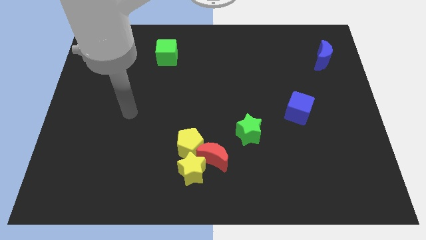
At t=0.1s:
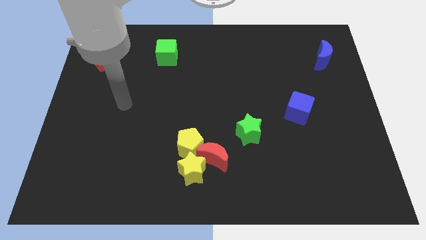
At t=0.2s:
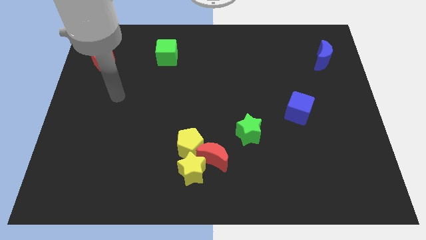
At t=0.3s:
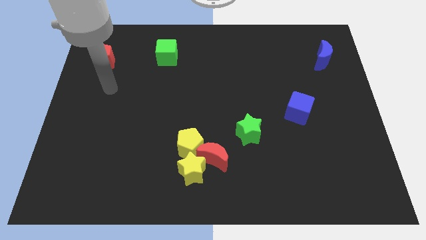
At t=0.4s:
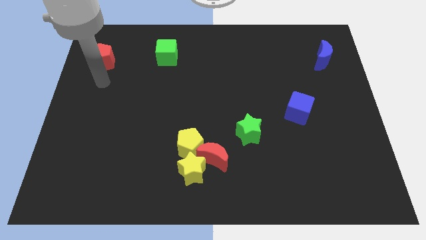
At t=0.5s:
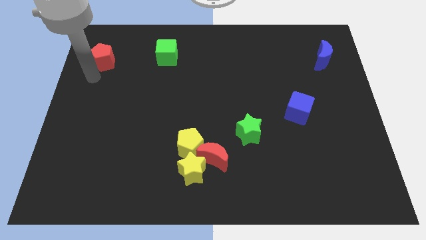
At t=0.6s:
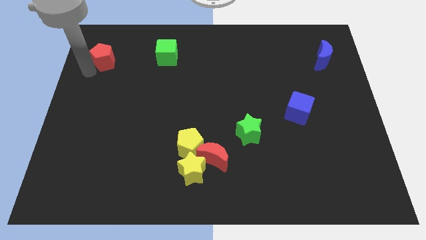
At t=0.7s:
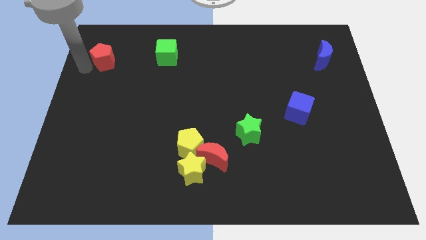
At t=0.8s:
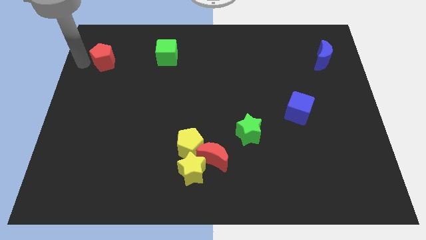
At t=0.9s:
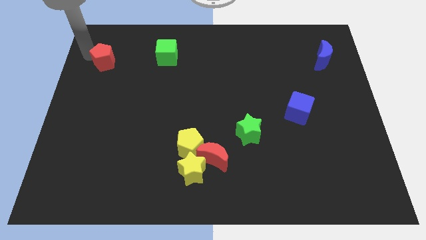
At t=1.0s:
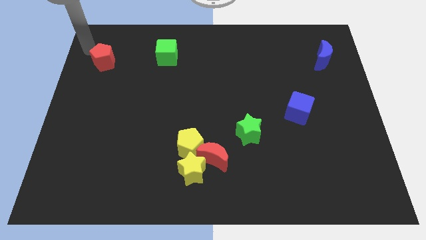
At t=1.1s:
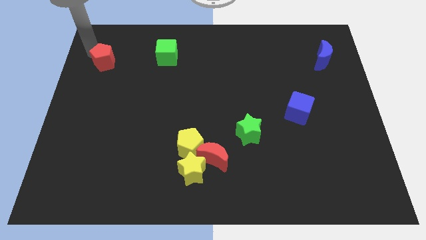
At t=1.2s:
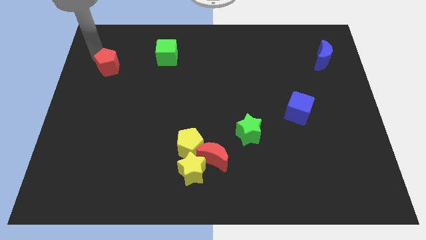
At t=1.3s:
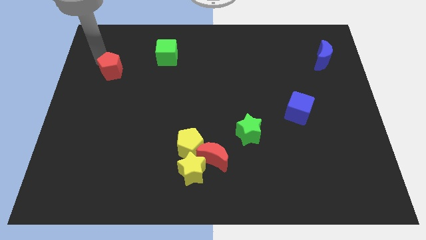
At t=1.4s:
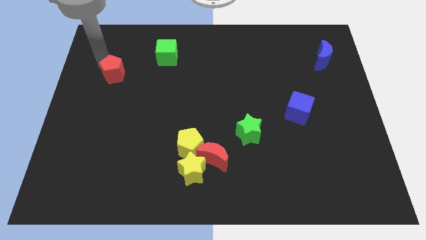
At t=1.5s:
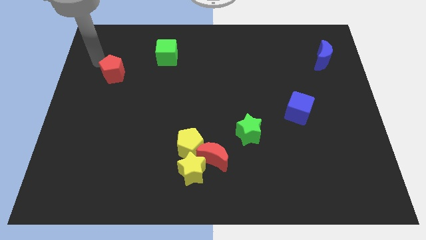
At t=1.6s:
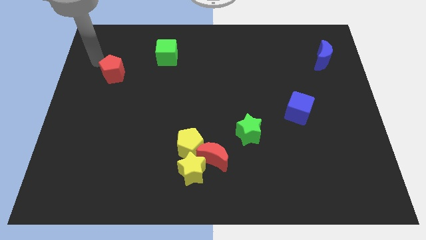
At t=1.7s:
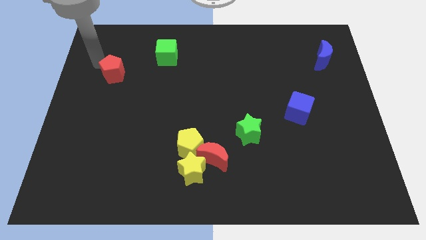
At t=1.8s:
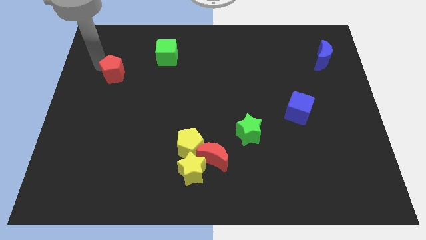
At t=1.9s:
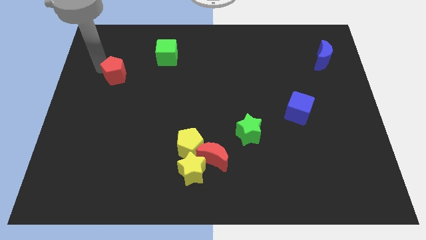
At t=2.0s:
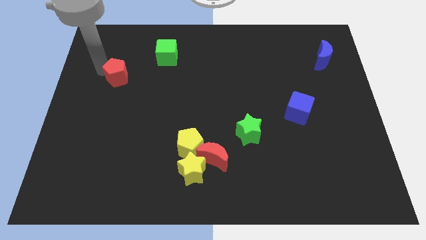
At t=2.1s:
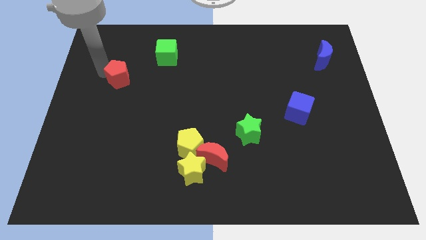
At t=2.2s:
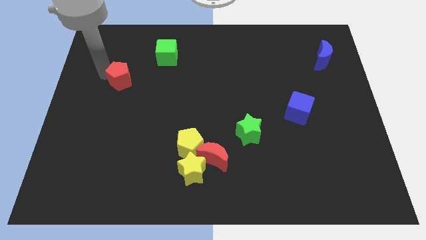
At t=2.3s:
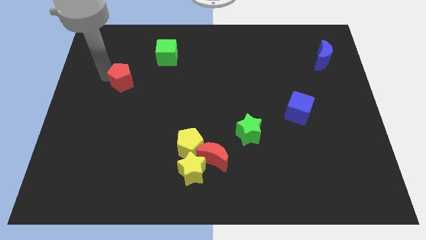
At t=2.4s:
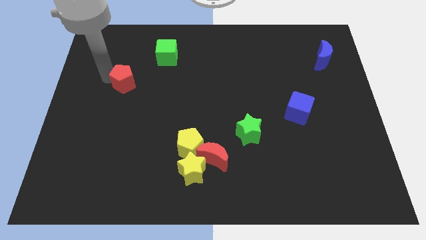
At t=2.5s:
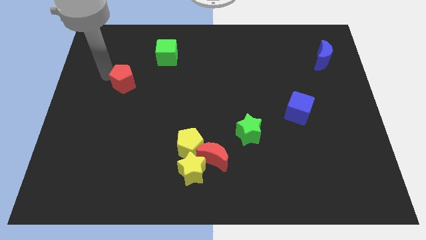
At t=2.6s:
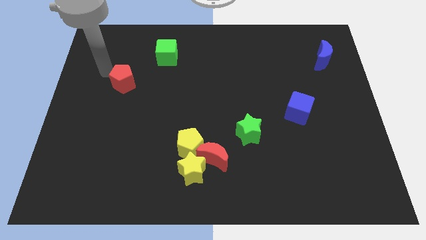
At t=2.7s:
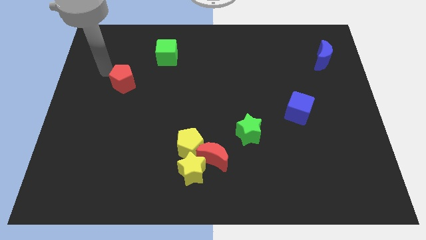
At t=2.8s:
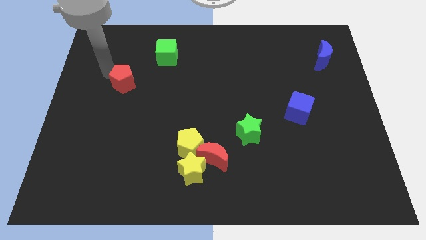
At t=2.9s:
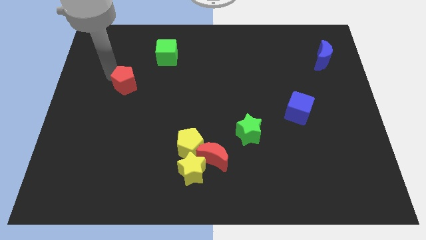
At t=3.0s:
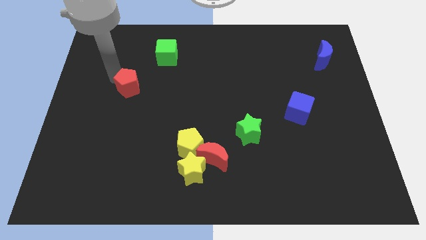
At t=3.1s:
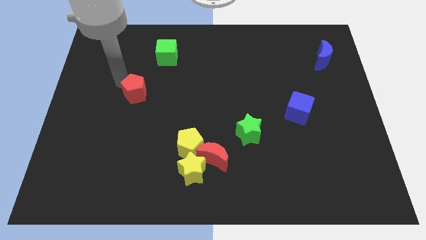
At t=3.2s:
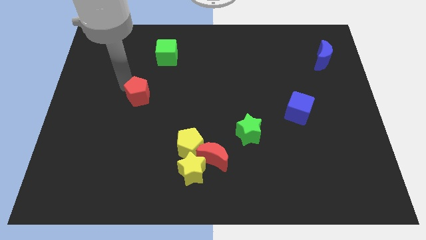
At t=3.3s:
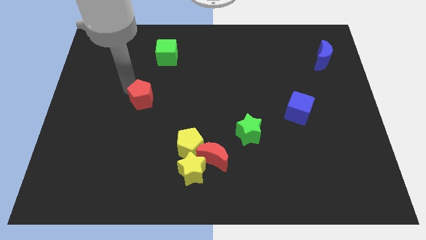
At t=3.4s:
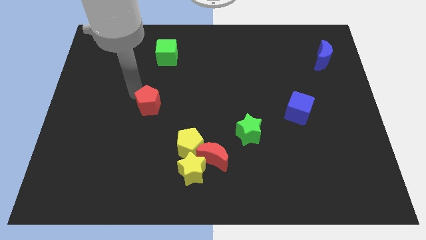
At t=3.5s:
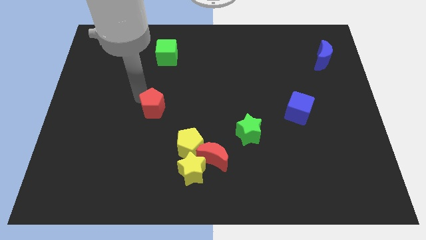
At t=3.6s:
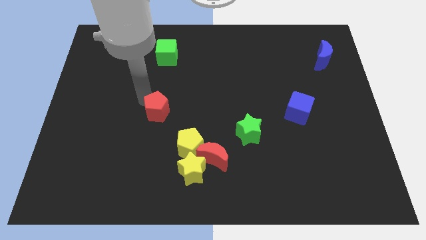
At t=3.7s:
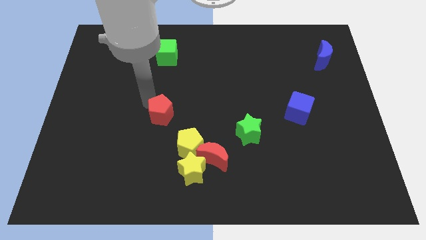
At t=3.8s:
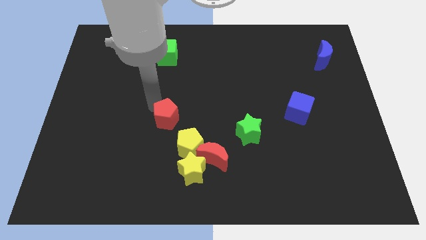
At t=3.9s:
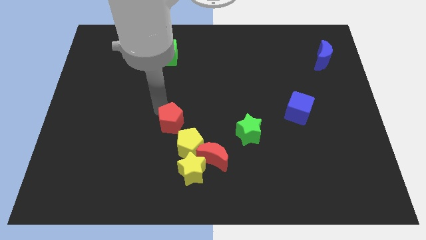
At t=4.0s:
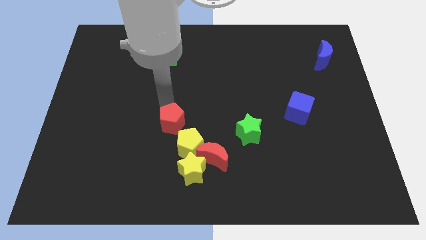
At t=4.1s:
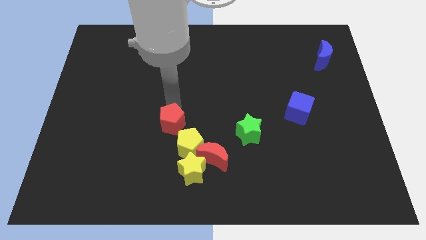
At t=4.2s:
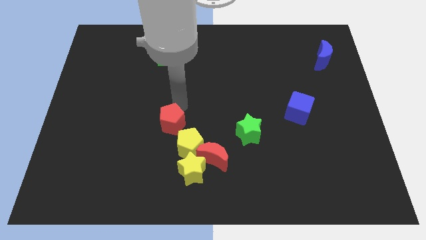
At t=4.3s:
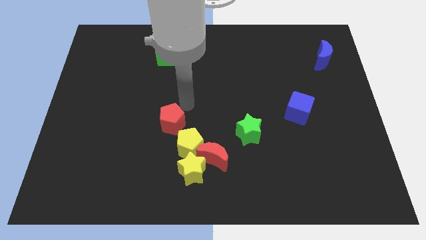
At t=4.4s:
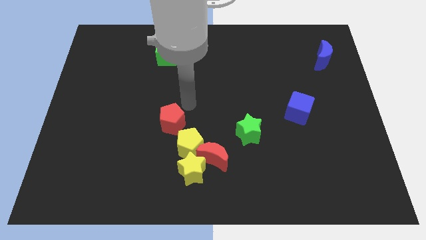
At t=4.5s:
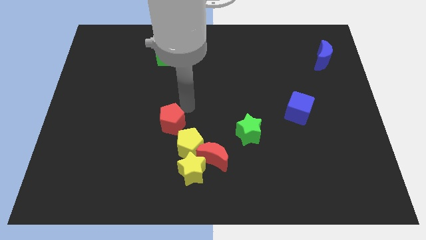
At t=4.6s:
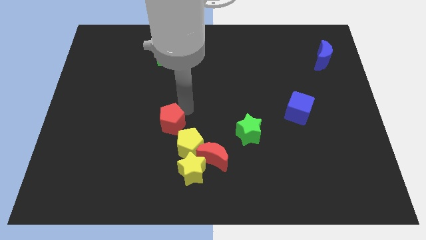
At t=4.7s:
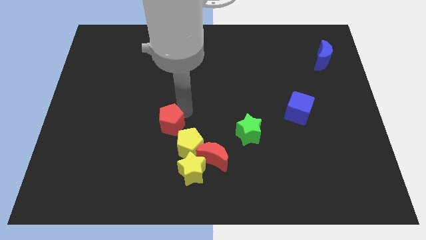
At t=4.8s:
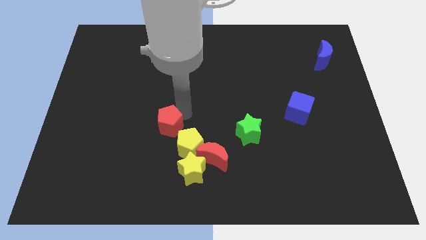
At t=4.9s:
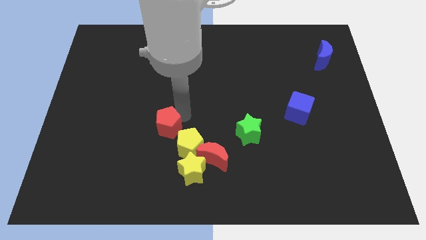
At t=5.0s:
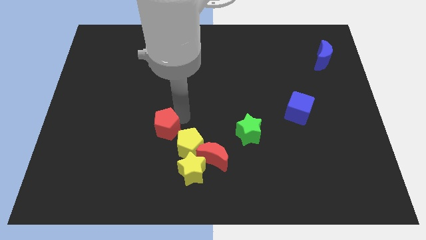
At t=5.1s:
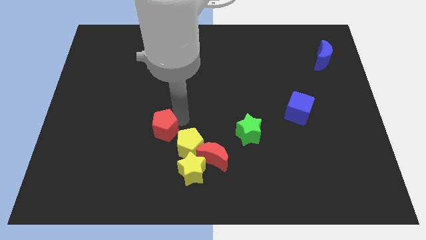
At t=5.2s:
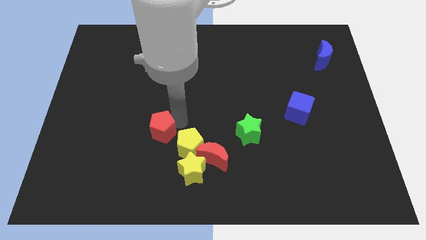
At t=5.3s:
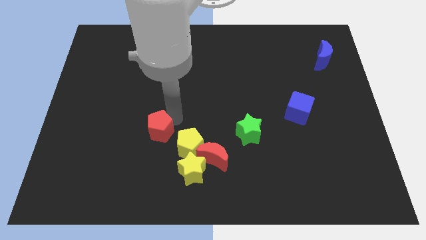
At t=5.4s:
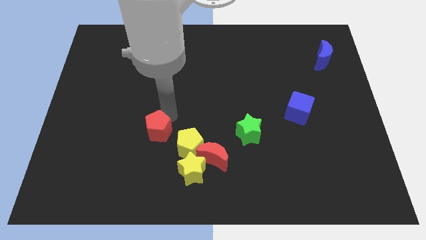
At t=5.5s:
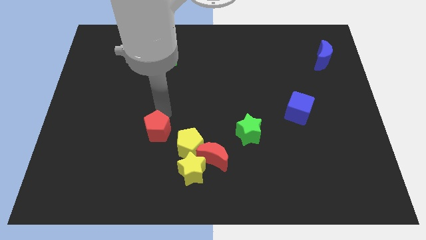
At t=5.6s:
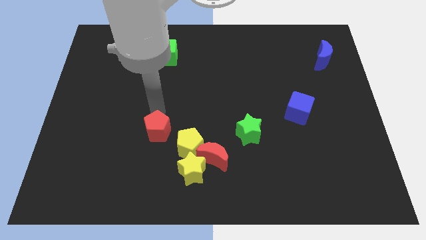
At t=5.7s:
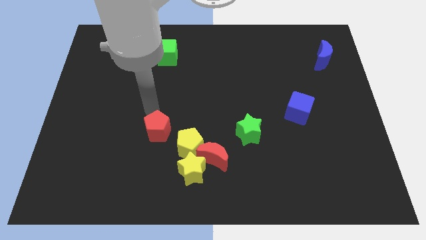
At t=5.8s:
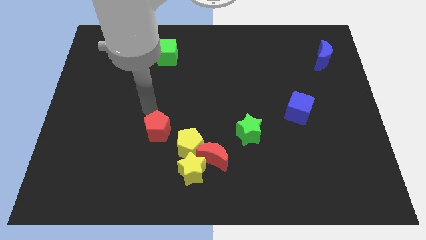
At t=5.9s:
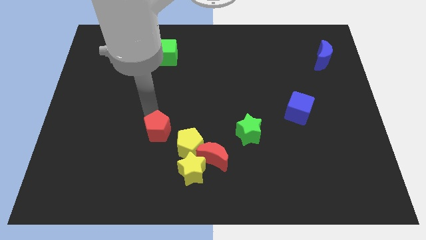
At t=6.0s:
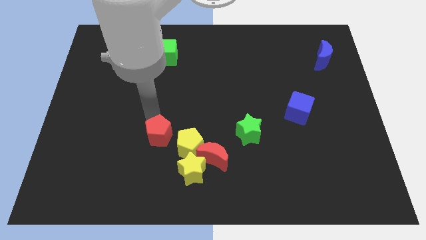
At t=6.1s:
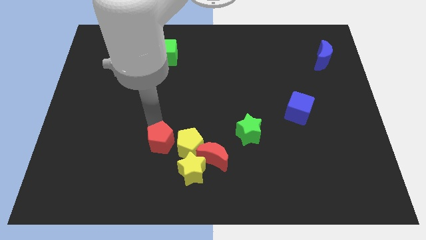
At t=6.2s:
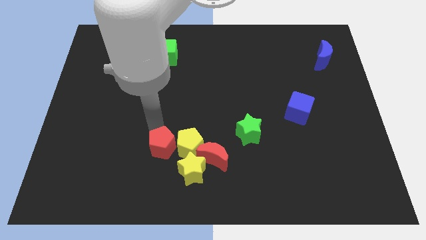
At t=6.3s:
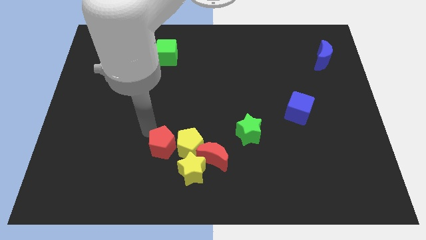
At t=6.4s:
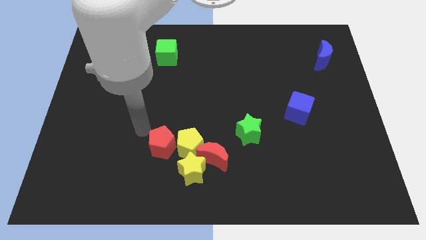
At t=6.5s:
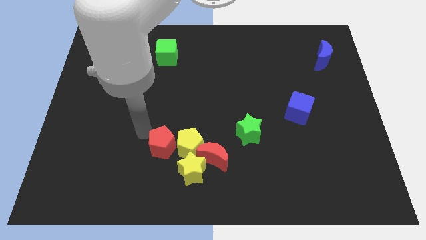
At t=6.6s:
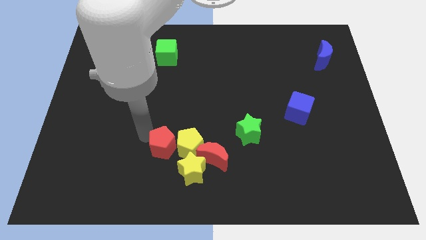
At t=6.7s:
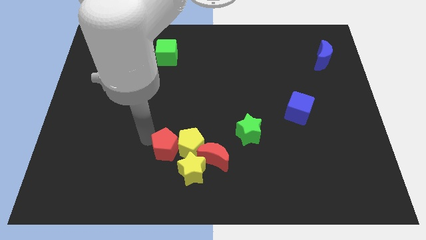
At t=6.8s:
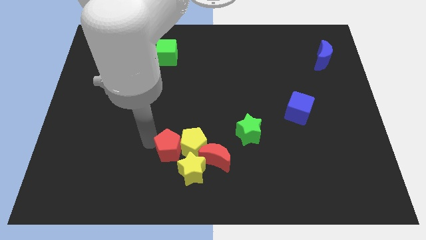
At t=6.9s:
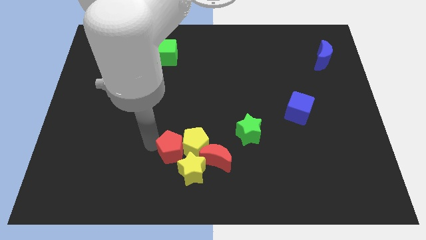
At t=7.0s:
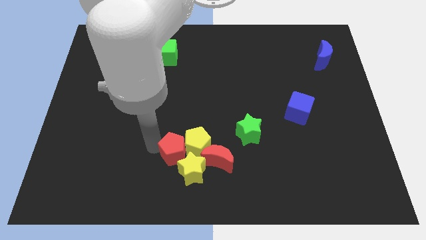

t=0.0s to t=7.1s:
move the red pentagon to the yellow star
